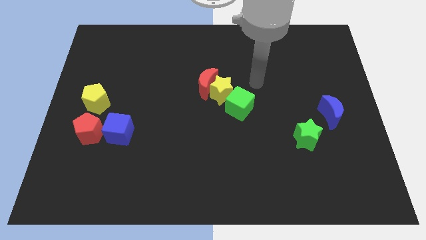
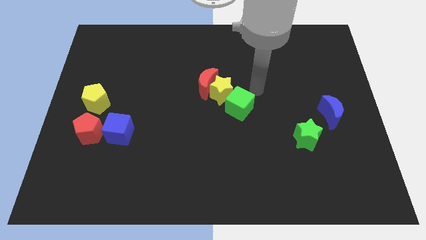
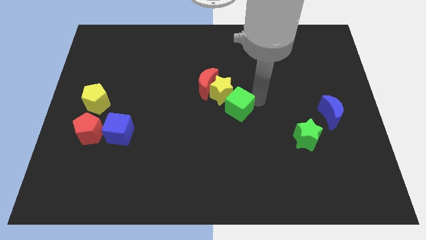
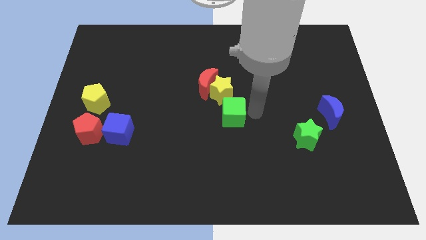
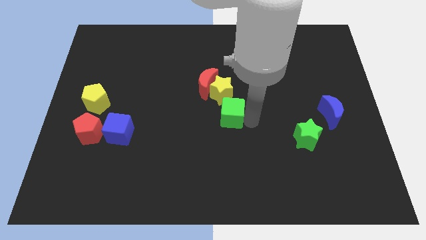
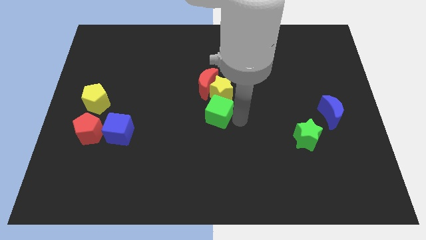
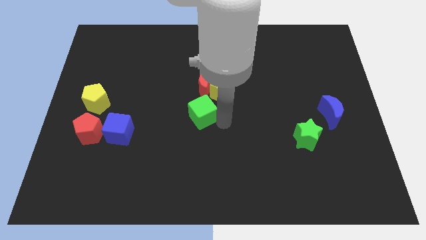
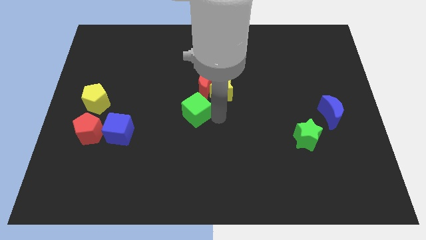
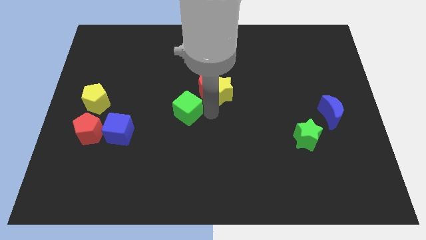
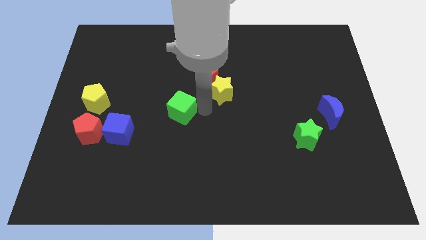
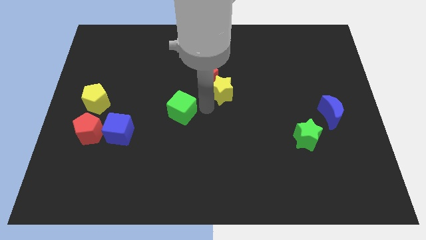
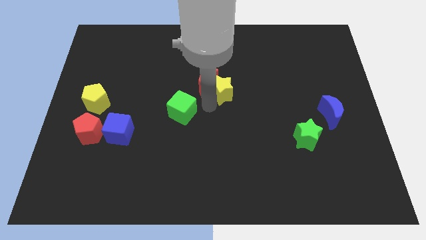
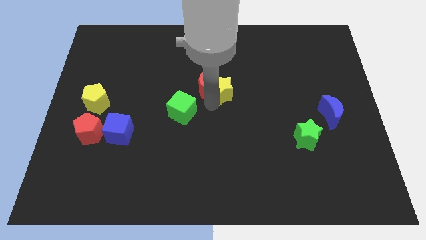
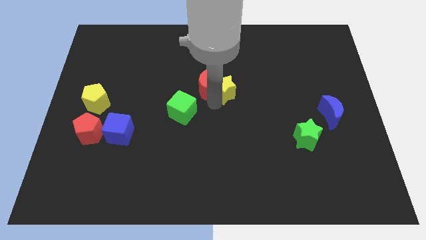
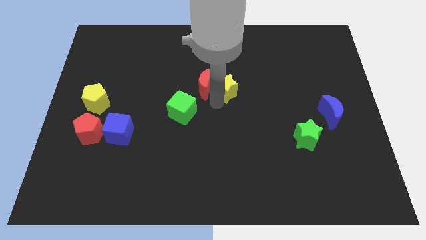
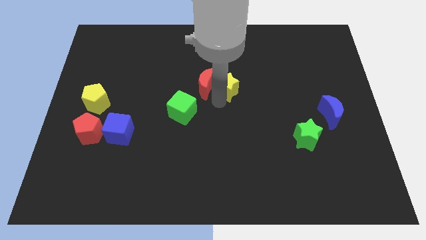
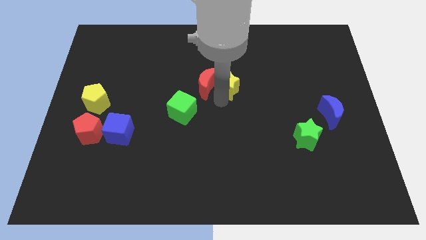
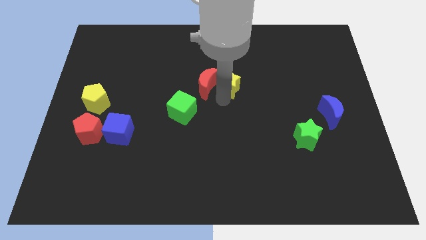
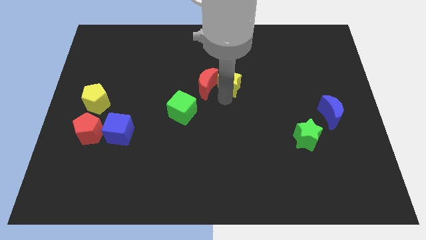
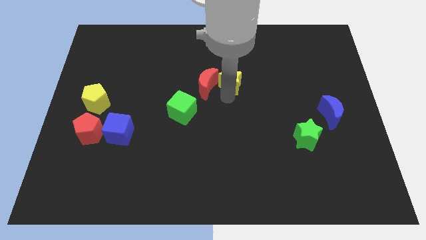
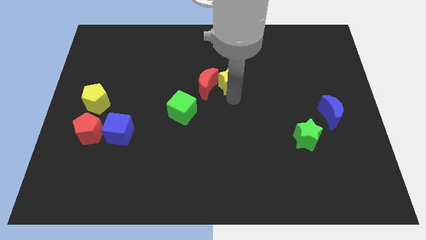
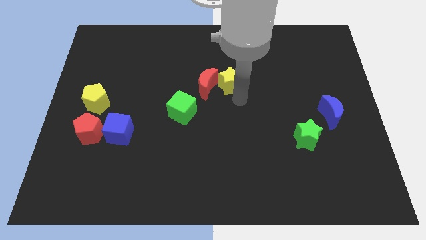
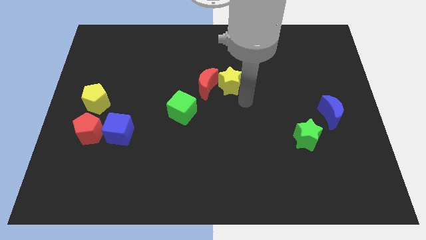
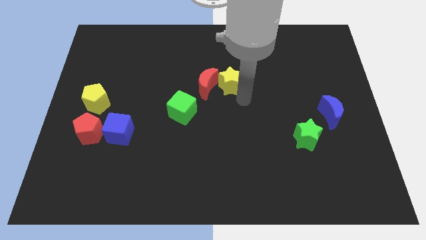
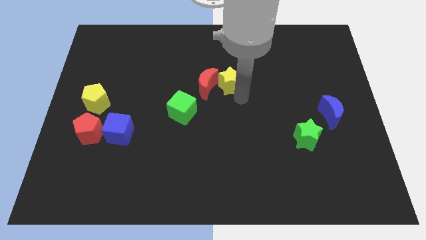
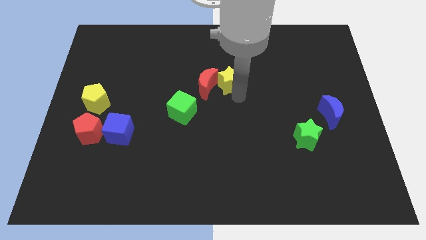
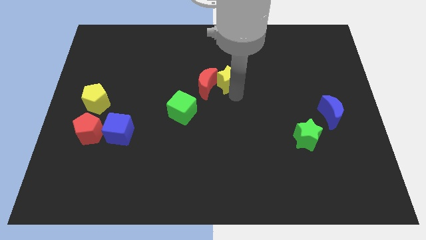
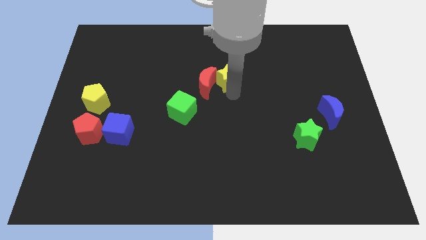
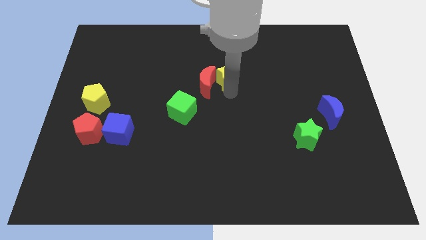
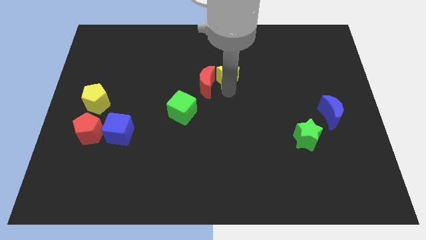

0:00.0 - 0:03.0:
separate the yellow star from the red moon and green cube

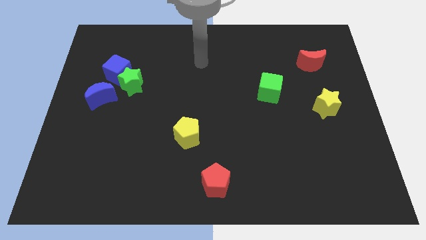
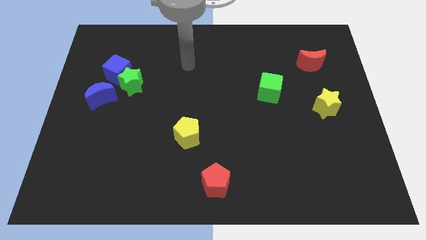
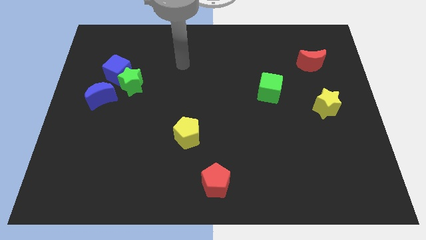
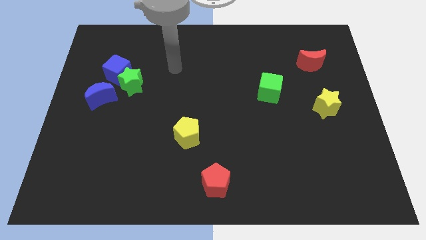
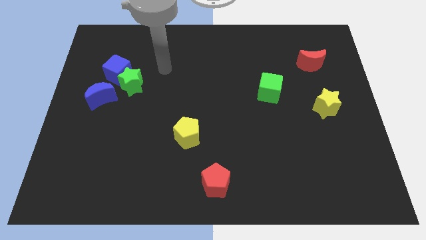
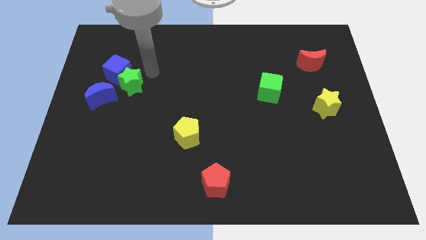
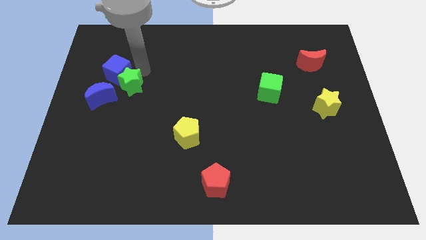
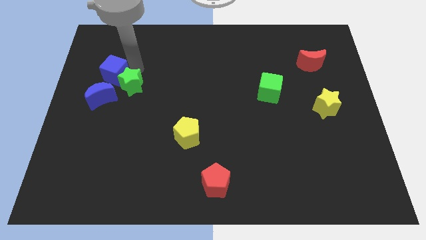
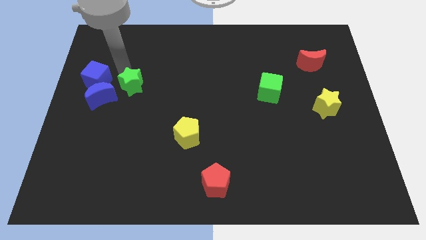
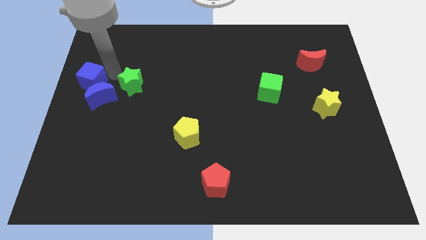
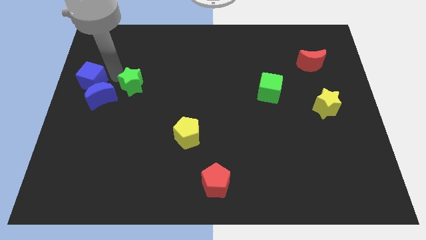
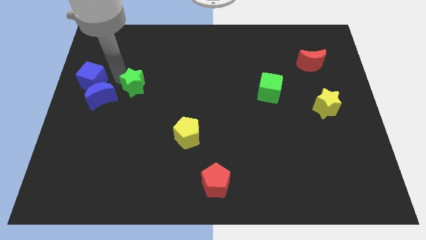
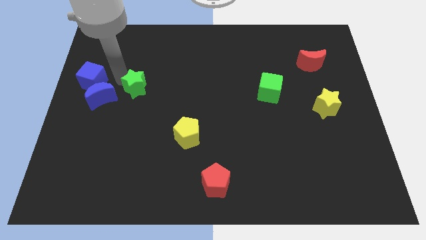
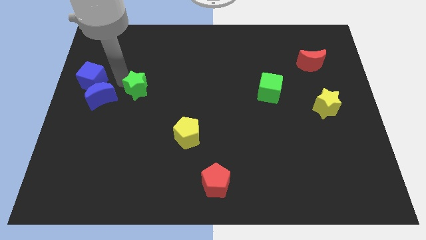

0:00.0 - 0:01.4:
move the green star away from the blue cube and blue moon

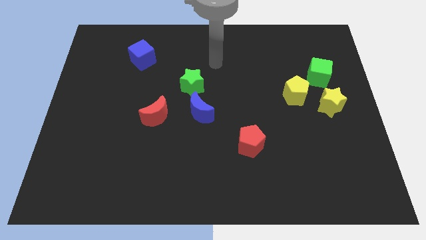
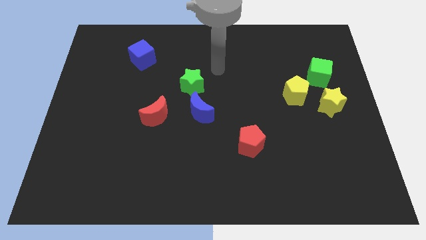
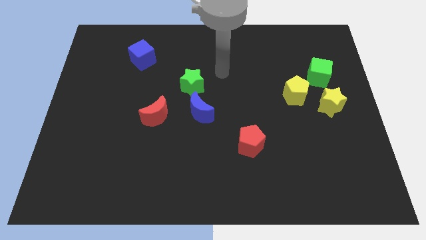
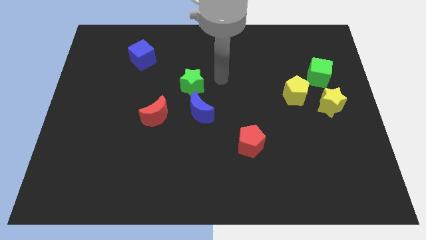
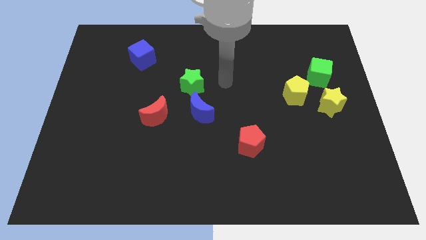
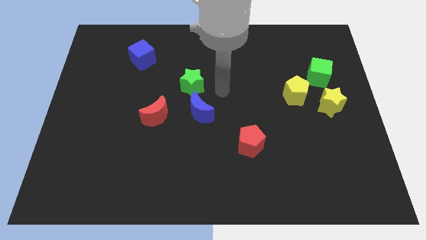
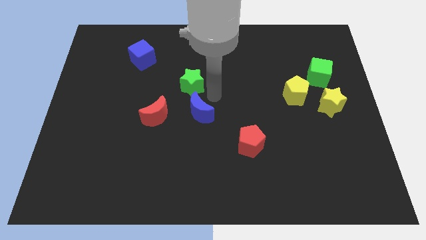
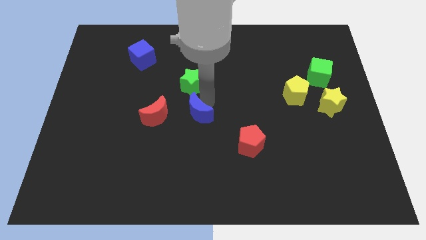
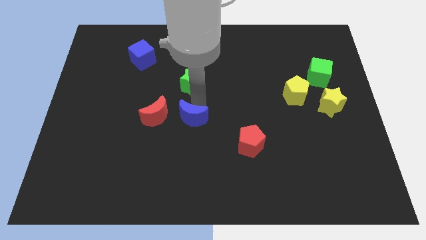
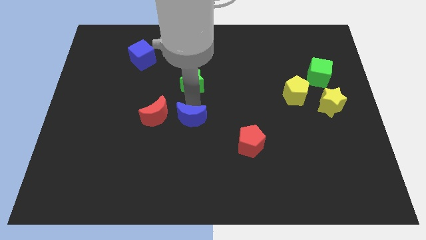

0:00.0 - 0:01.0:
separate the green star from the blue moon

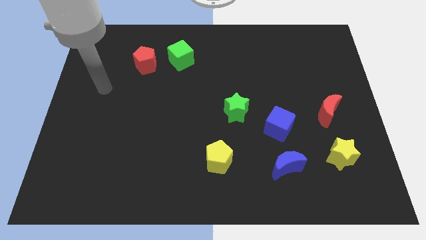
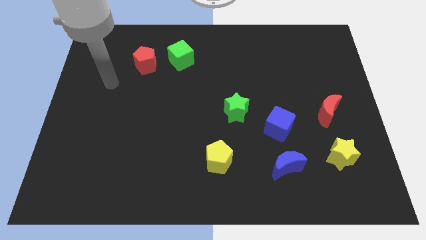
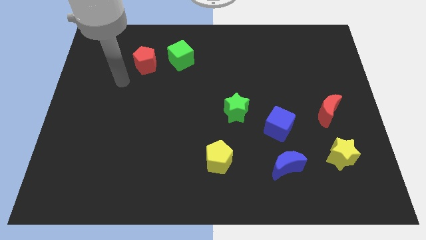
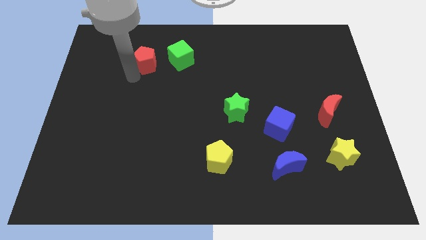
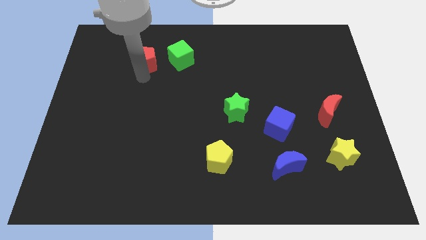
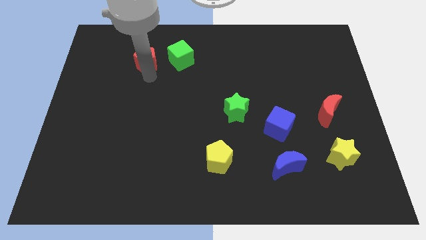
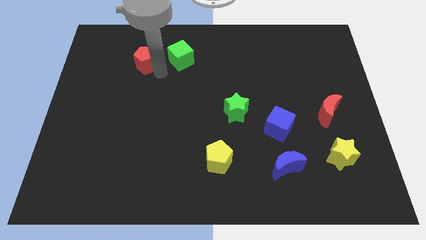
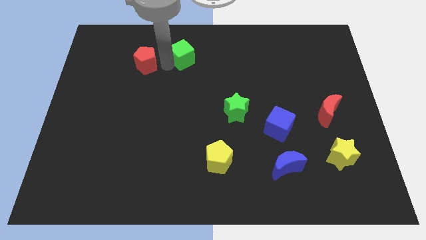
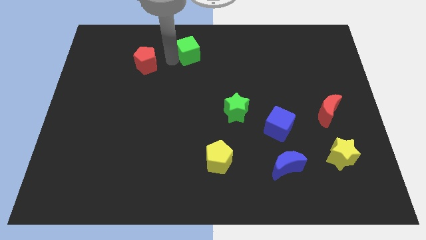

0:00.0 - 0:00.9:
pull the red pentagon apart from the green cube

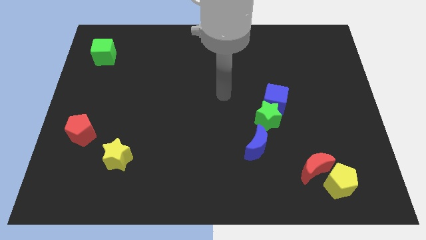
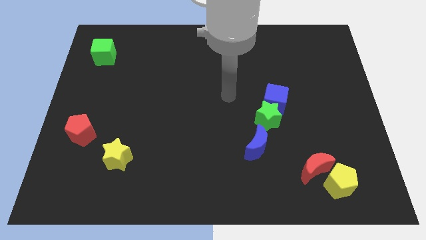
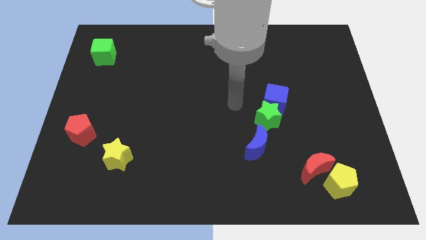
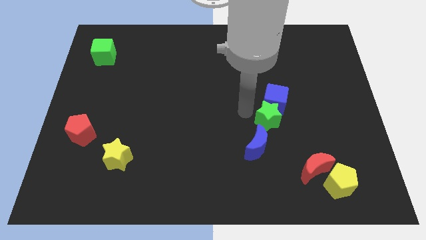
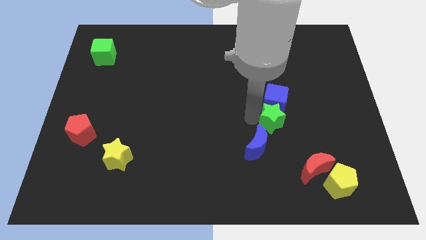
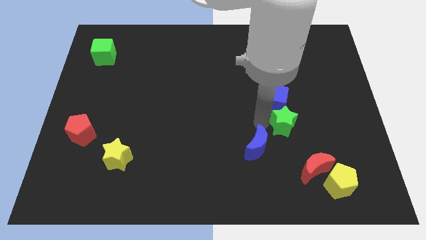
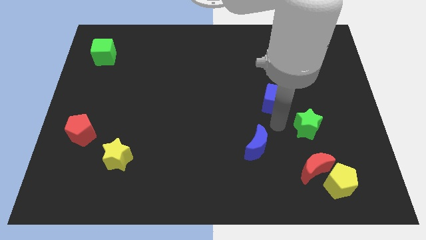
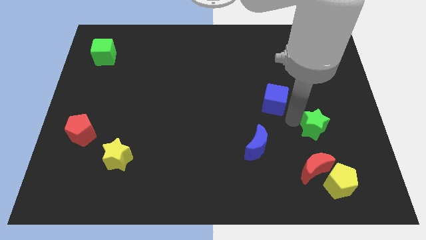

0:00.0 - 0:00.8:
pull the blue cube apart from the green star

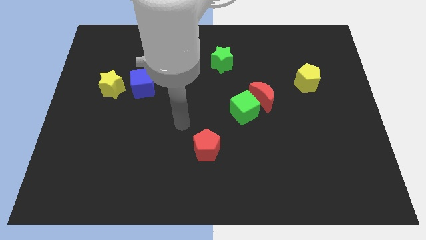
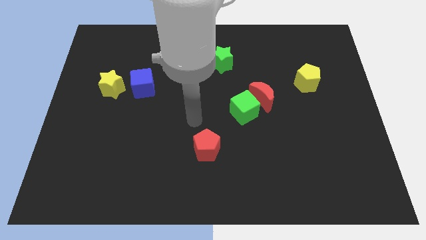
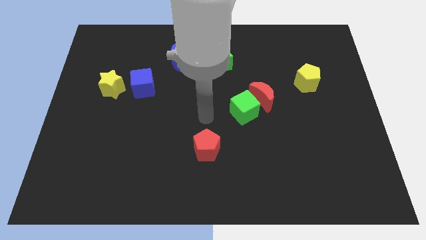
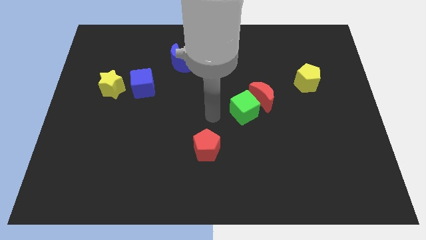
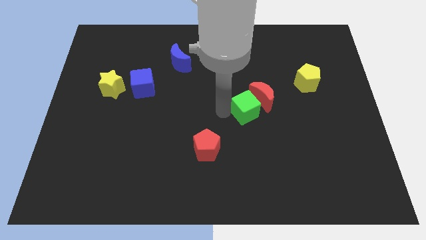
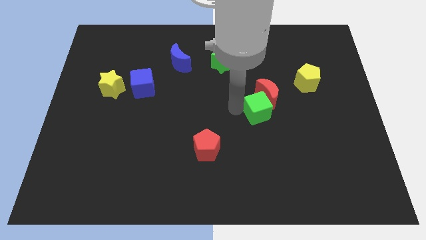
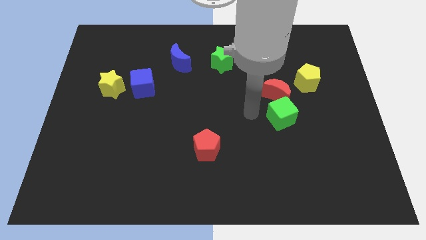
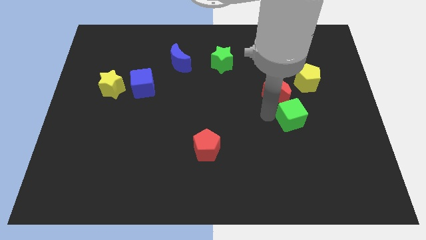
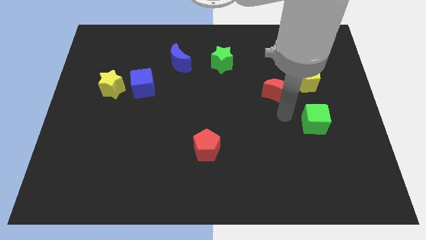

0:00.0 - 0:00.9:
move the red moon away from the green cube

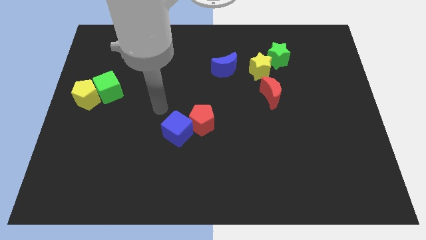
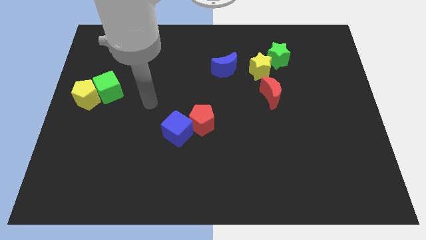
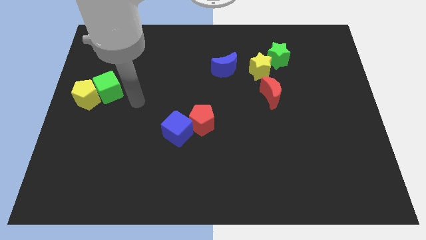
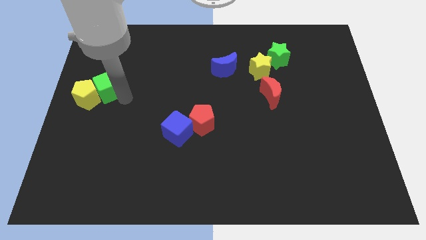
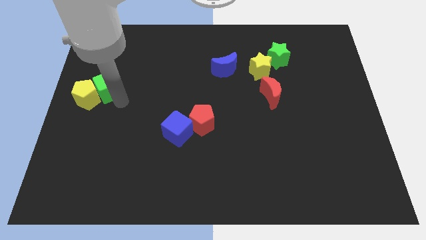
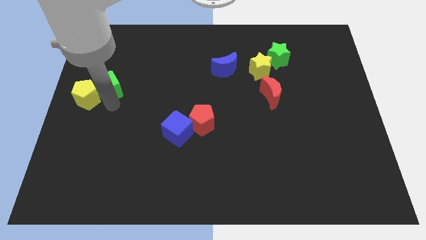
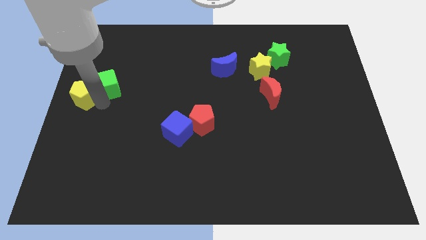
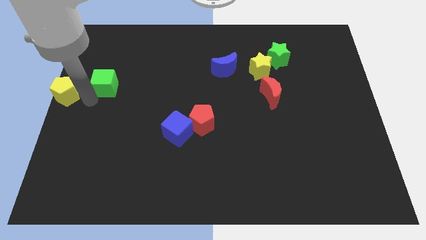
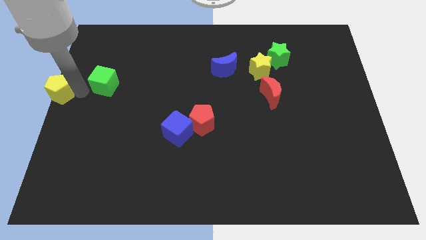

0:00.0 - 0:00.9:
separate the green cube from the yellow pentagon

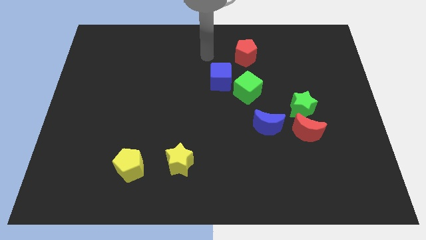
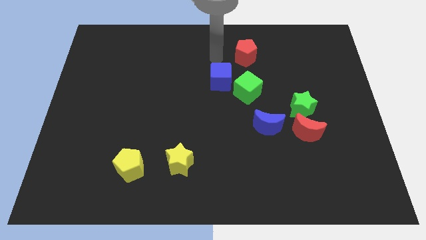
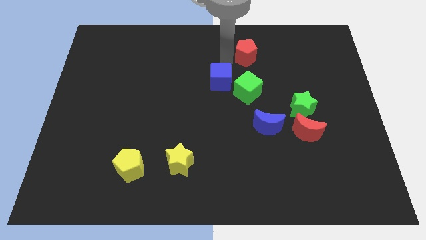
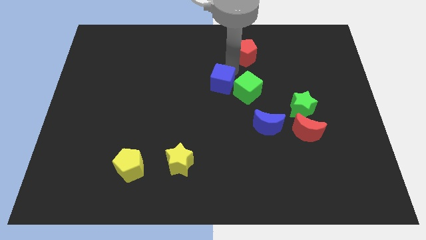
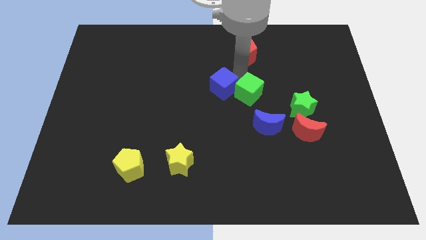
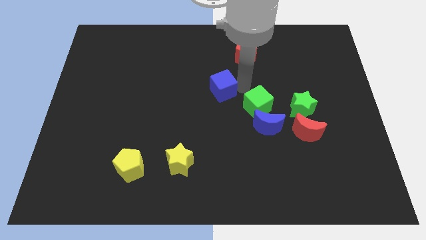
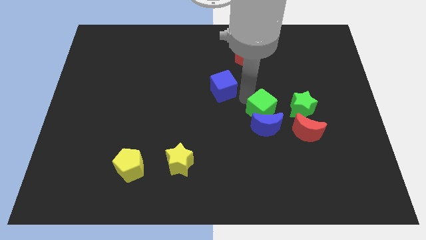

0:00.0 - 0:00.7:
move the blue cube away from the green cube
